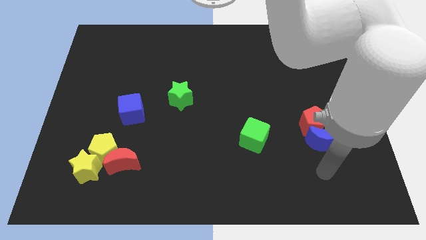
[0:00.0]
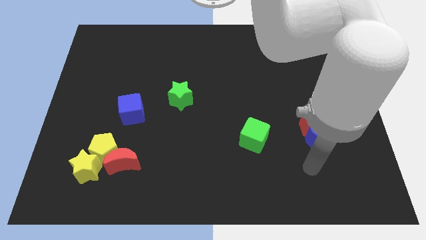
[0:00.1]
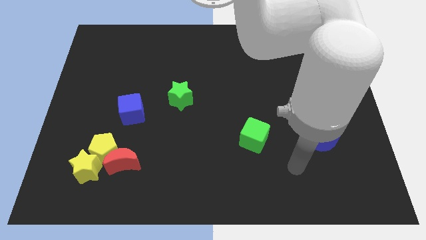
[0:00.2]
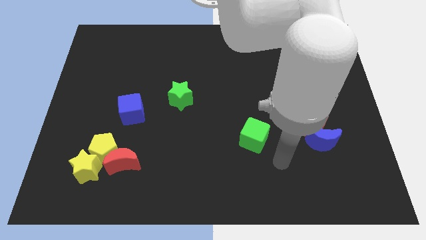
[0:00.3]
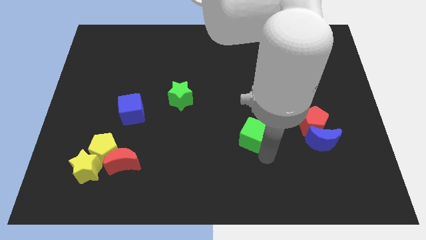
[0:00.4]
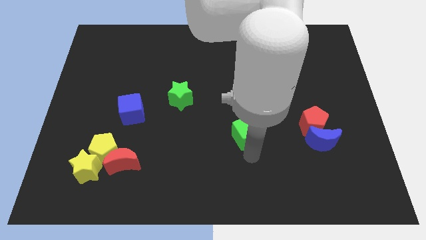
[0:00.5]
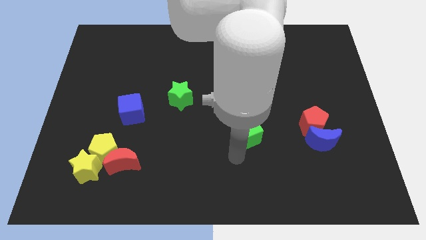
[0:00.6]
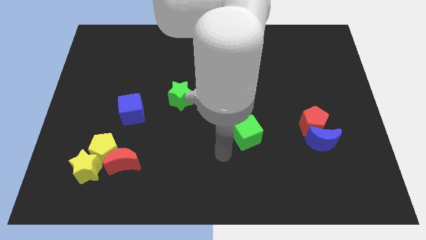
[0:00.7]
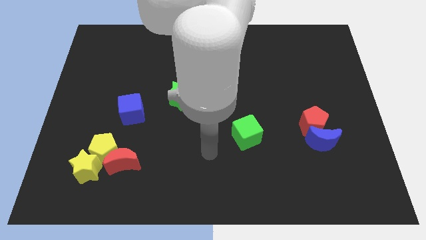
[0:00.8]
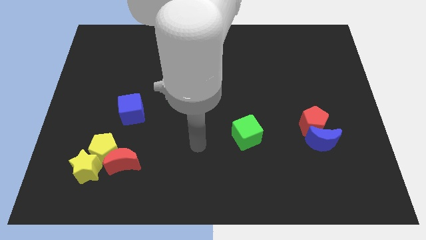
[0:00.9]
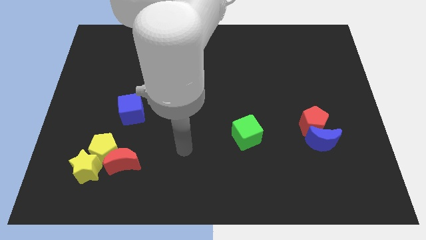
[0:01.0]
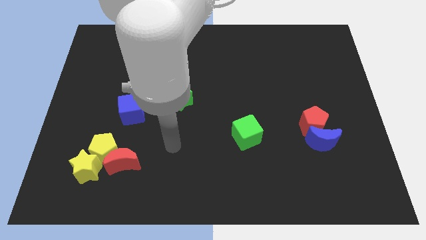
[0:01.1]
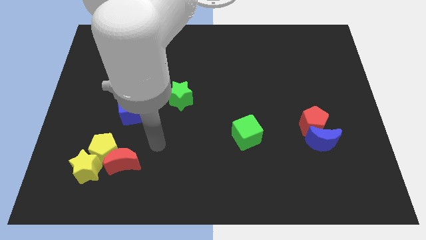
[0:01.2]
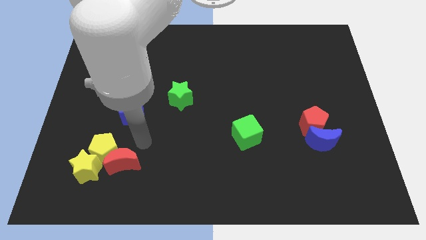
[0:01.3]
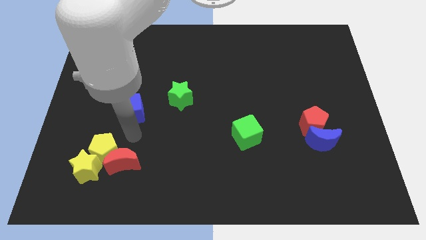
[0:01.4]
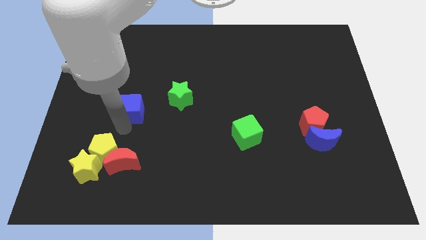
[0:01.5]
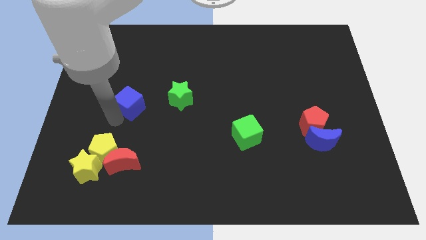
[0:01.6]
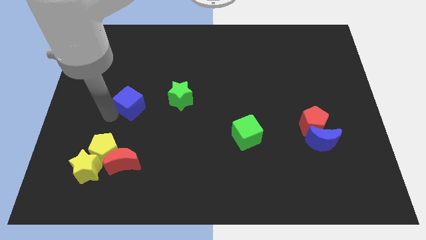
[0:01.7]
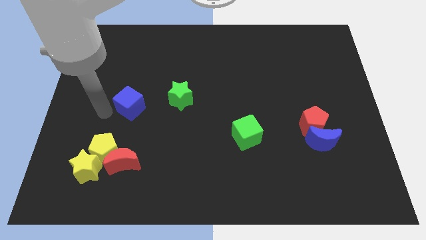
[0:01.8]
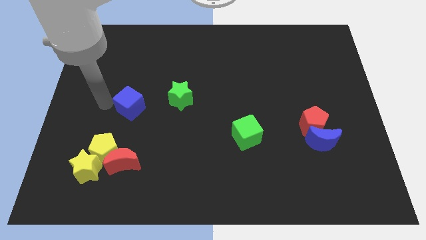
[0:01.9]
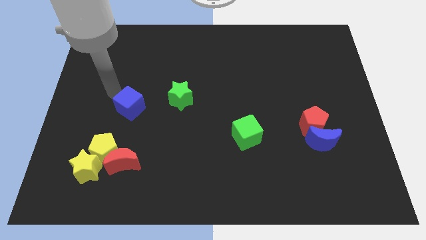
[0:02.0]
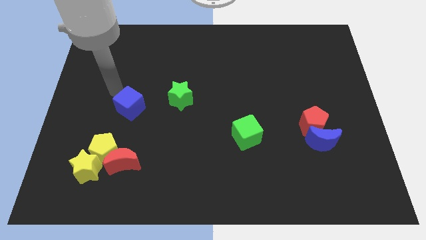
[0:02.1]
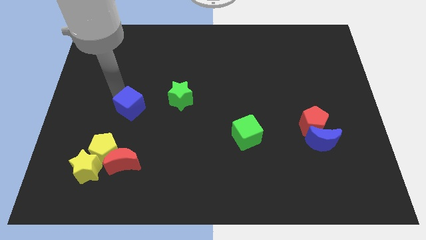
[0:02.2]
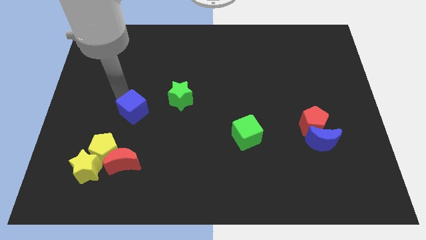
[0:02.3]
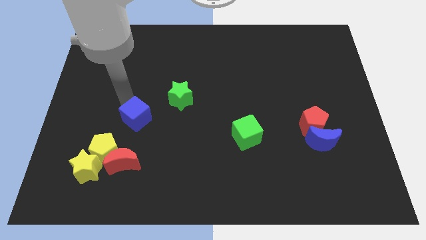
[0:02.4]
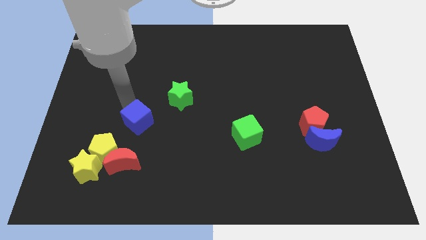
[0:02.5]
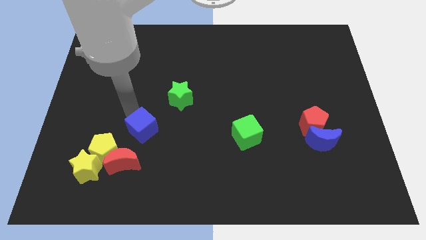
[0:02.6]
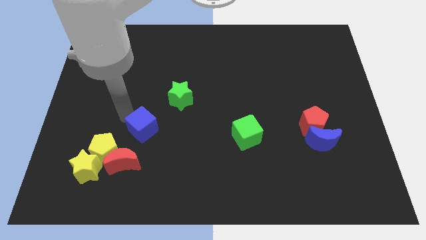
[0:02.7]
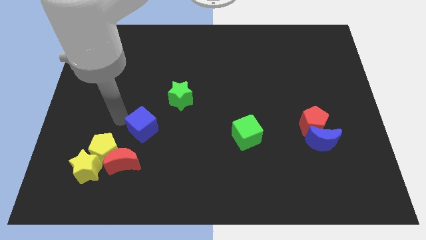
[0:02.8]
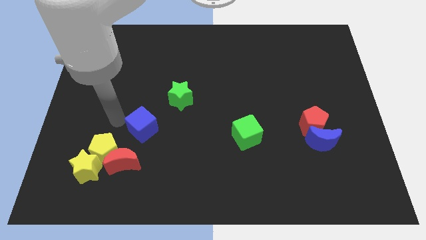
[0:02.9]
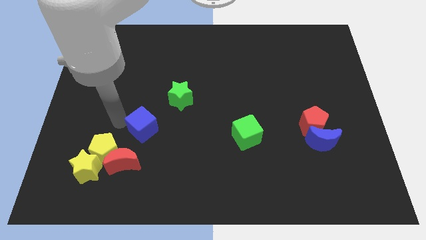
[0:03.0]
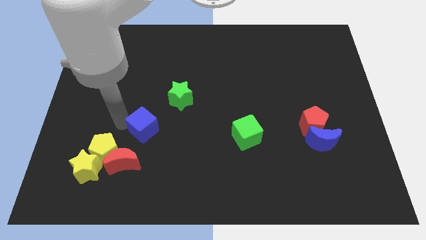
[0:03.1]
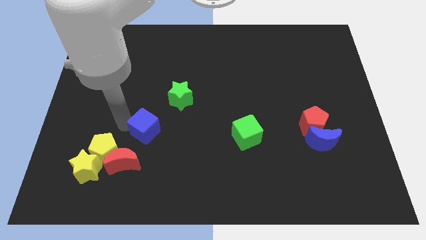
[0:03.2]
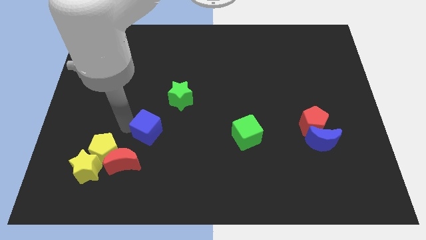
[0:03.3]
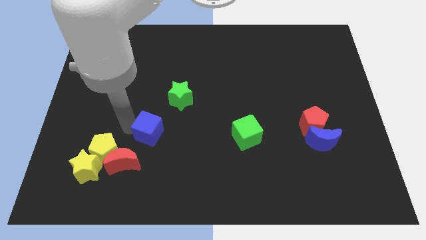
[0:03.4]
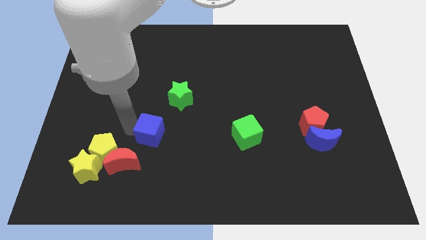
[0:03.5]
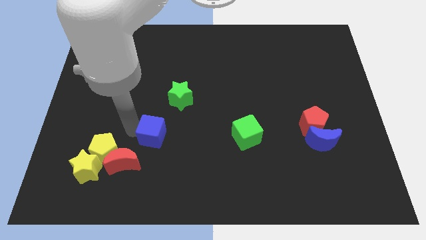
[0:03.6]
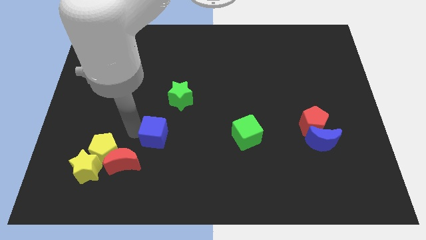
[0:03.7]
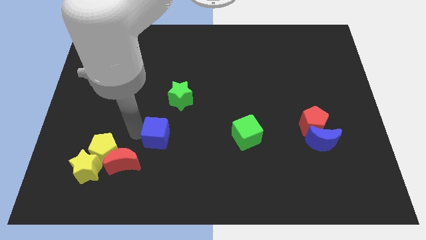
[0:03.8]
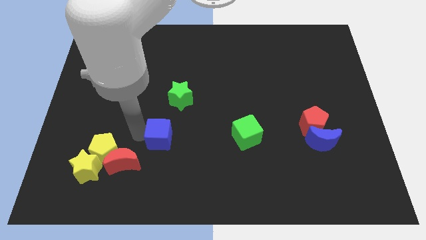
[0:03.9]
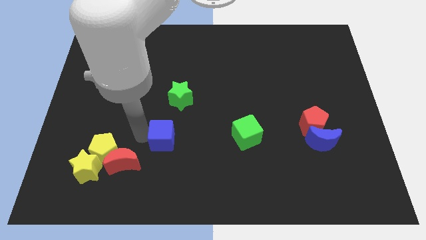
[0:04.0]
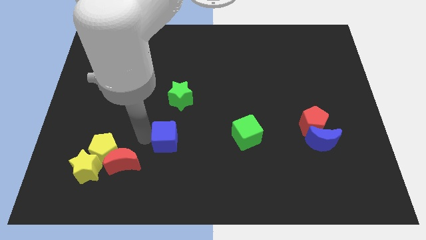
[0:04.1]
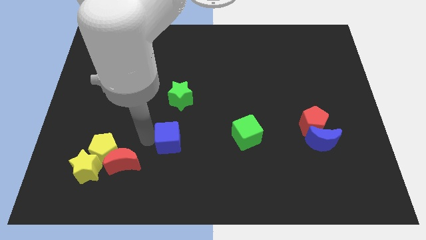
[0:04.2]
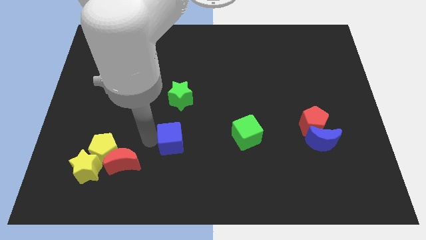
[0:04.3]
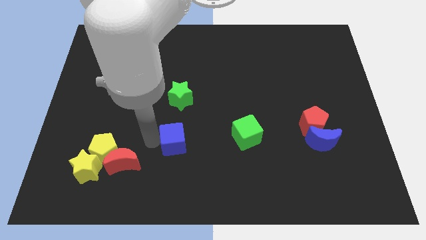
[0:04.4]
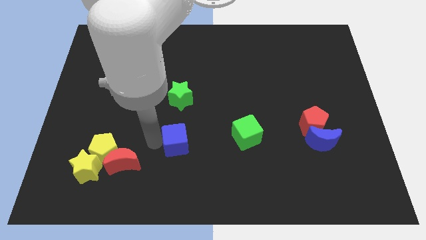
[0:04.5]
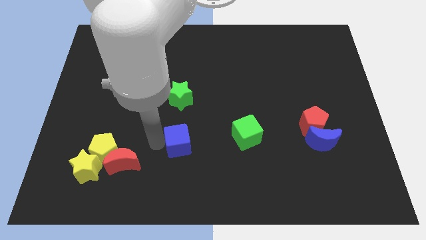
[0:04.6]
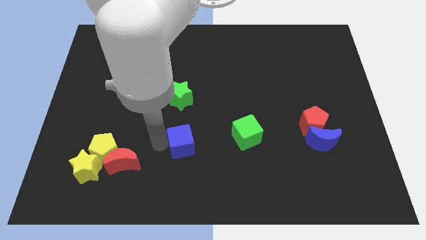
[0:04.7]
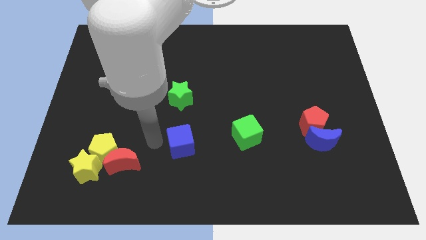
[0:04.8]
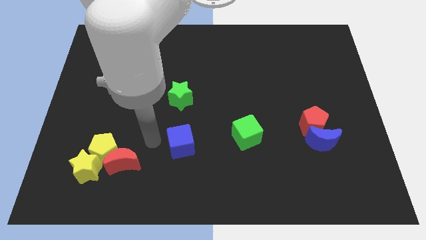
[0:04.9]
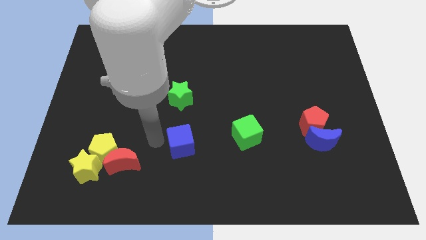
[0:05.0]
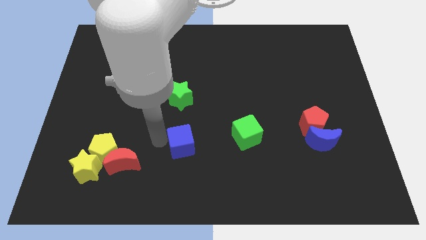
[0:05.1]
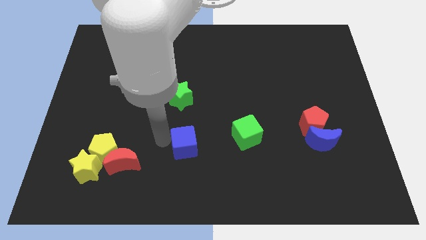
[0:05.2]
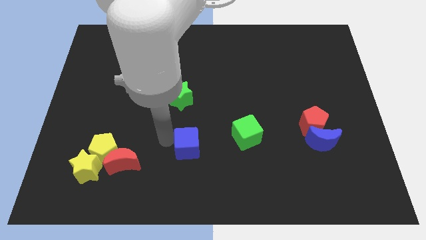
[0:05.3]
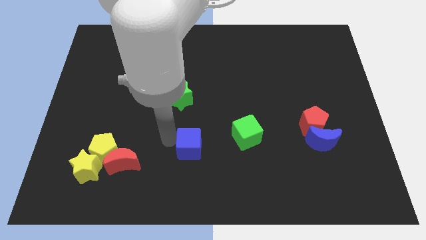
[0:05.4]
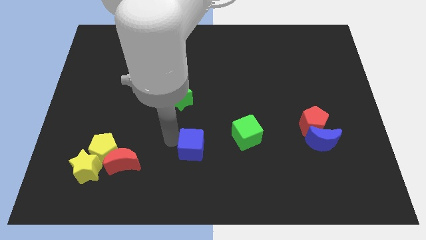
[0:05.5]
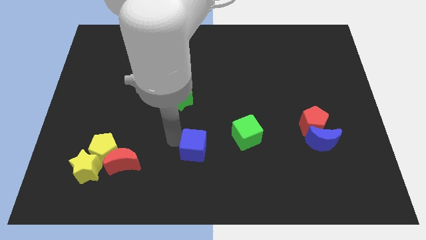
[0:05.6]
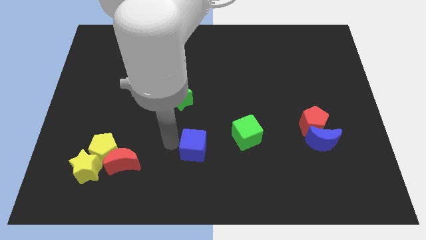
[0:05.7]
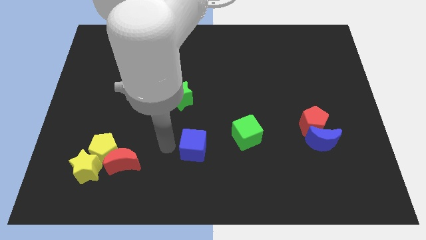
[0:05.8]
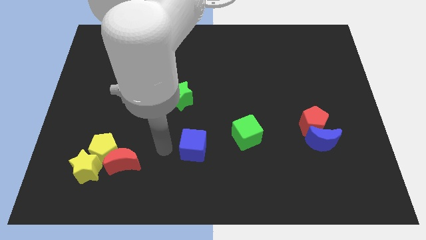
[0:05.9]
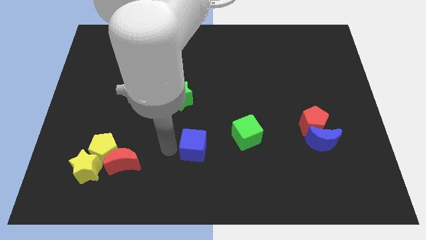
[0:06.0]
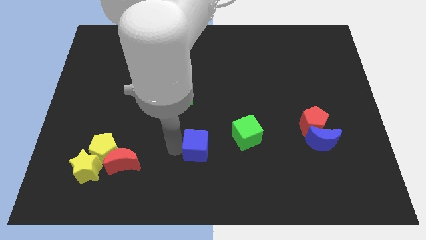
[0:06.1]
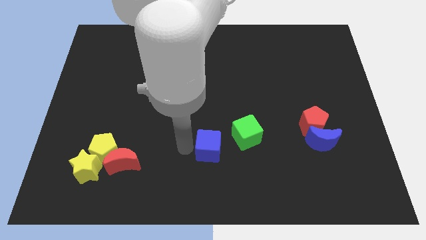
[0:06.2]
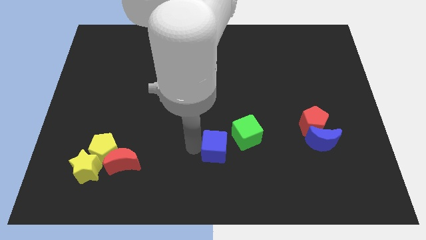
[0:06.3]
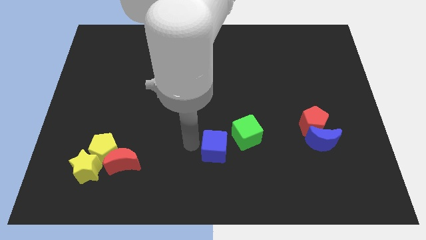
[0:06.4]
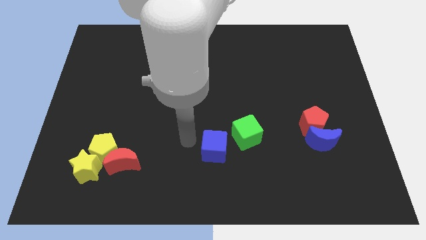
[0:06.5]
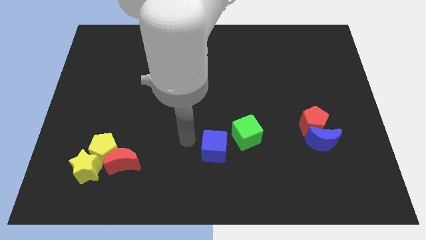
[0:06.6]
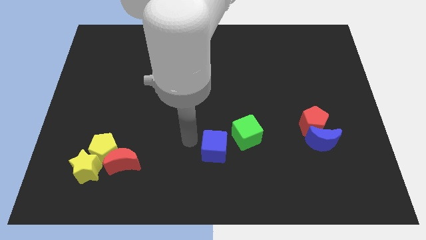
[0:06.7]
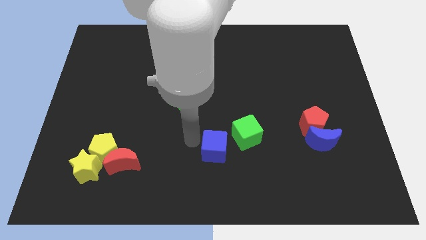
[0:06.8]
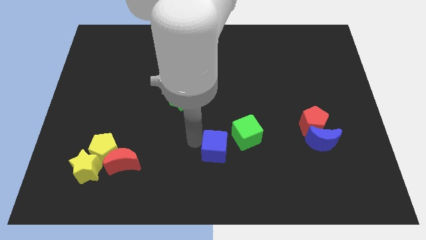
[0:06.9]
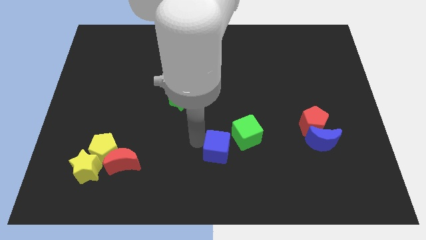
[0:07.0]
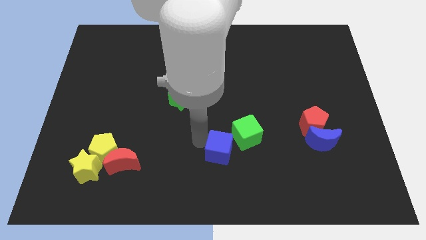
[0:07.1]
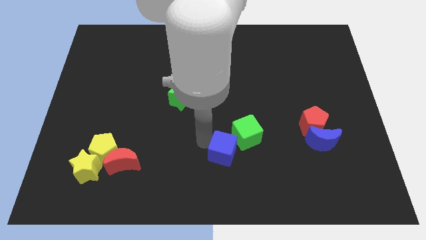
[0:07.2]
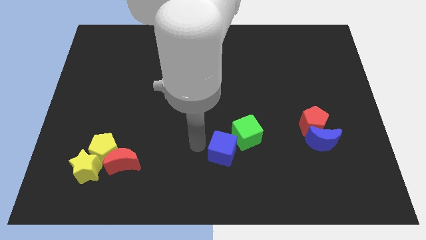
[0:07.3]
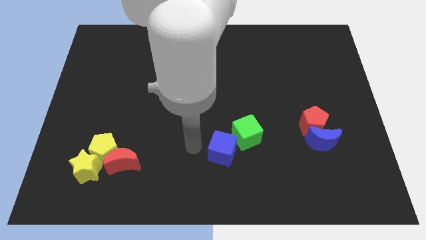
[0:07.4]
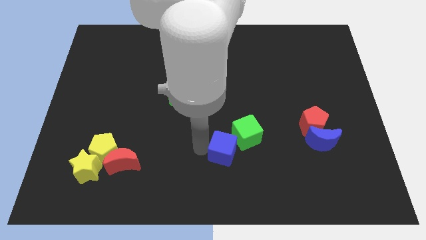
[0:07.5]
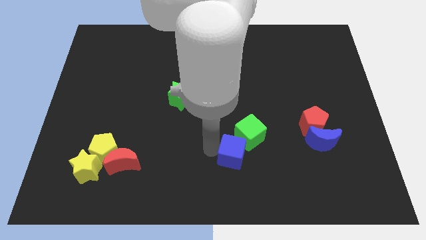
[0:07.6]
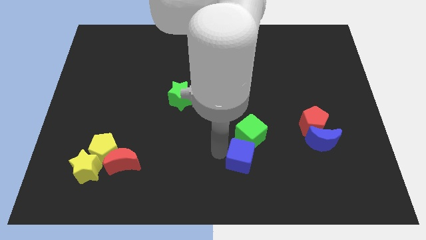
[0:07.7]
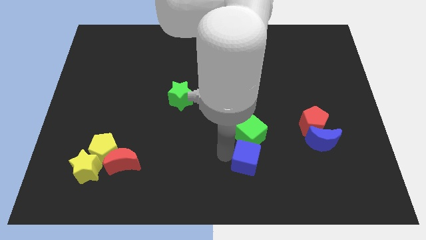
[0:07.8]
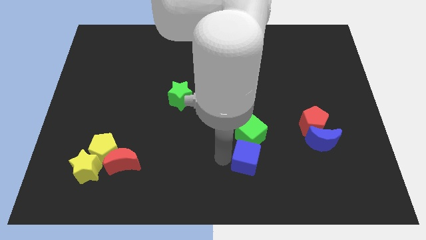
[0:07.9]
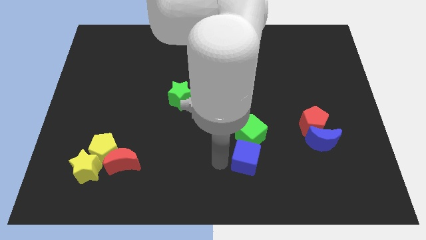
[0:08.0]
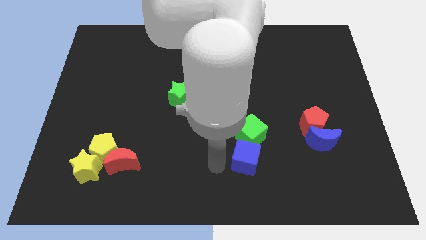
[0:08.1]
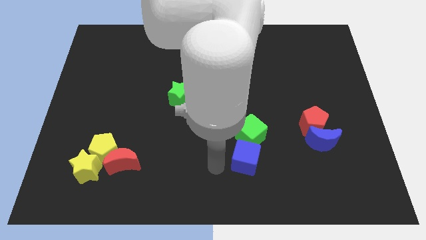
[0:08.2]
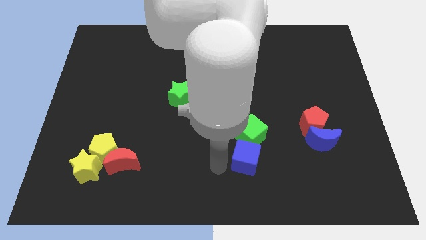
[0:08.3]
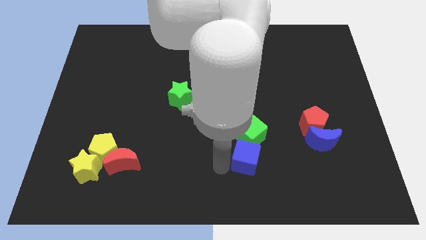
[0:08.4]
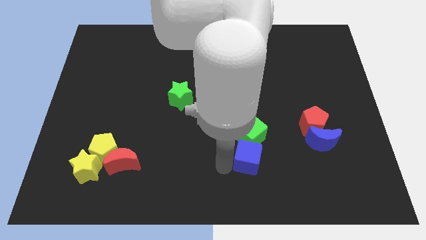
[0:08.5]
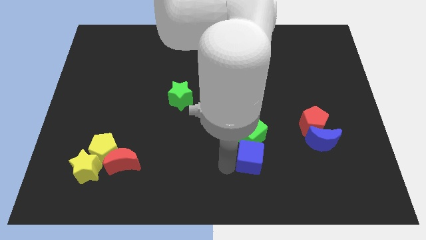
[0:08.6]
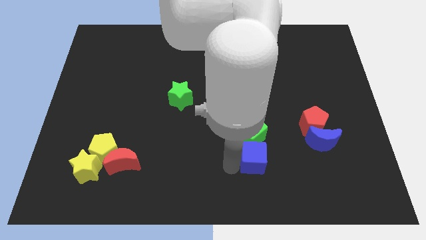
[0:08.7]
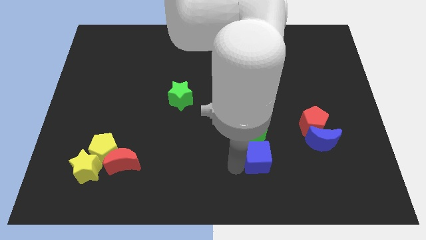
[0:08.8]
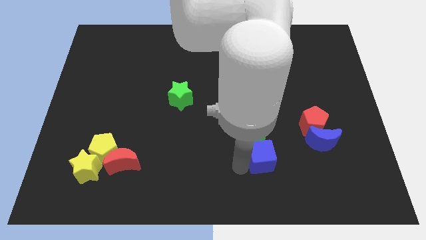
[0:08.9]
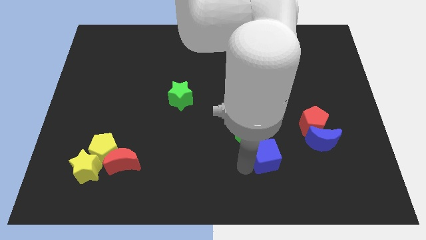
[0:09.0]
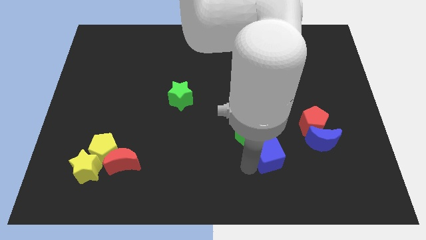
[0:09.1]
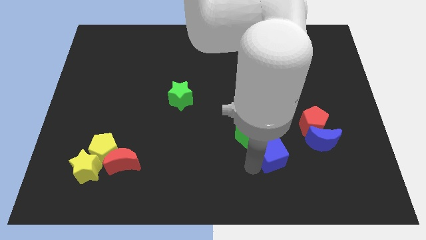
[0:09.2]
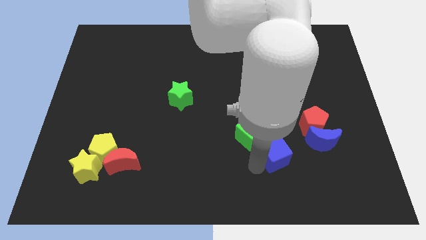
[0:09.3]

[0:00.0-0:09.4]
move the blue cube diagonally down and to the left of the red pentagon
